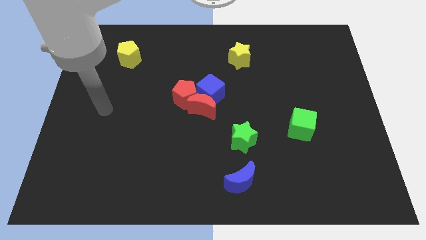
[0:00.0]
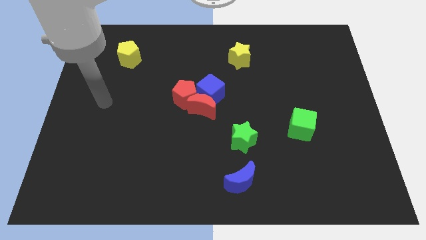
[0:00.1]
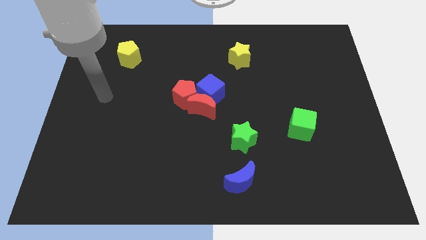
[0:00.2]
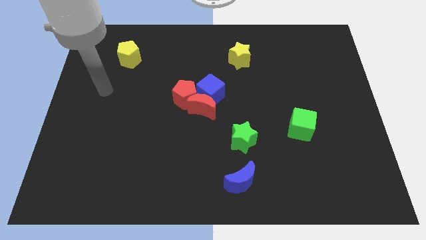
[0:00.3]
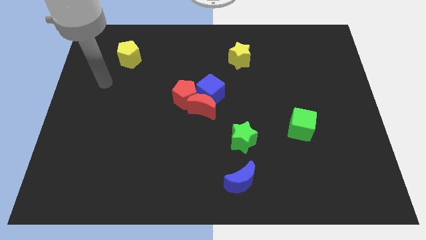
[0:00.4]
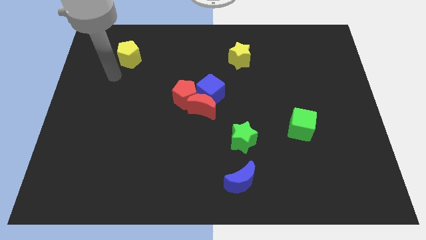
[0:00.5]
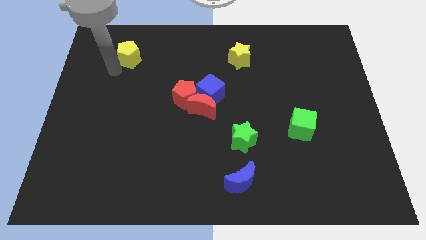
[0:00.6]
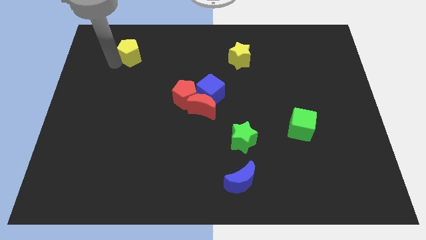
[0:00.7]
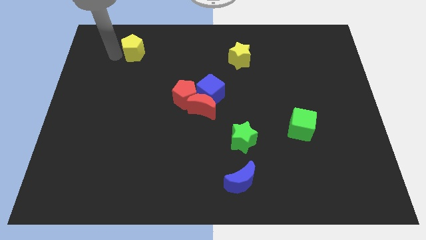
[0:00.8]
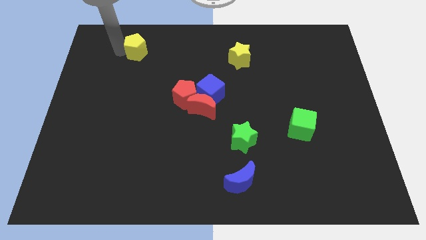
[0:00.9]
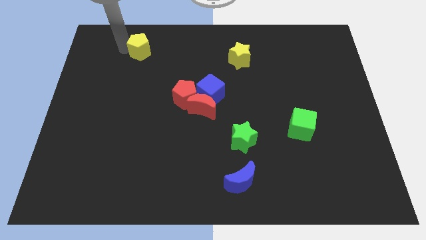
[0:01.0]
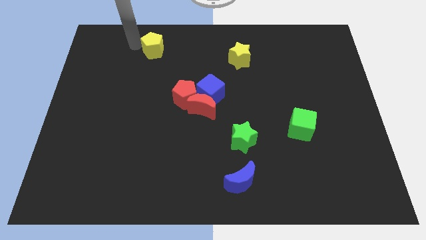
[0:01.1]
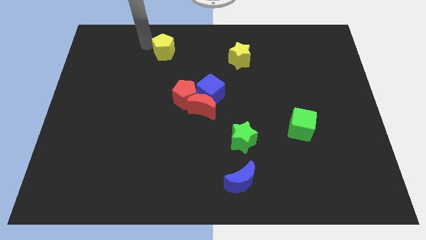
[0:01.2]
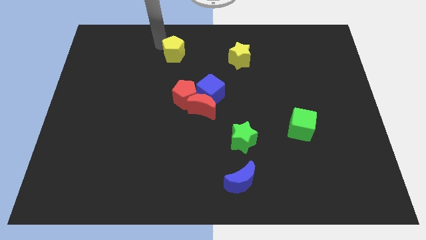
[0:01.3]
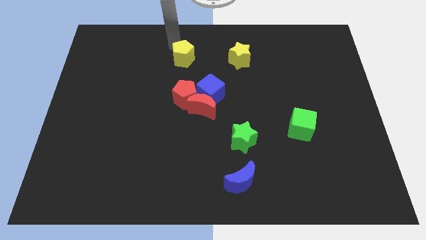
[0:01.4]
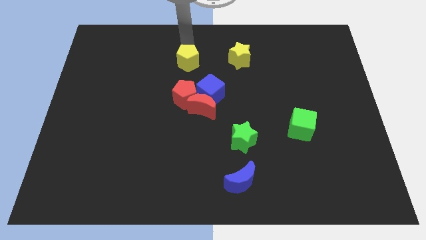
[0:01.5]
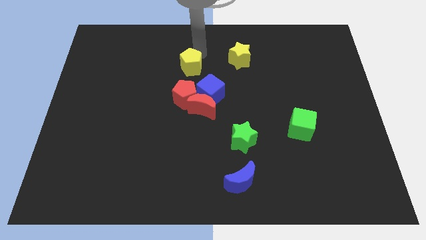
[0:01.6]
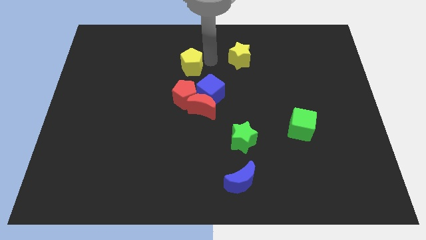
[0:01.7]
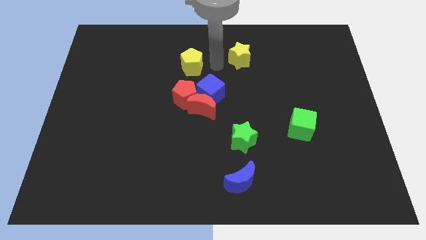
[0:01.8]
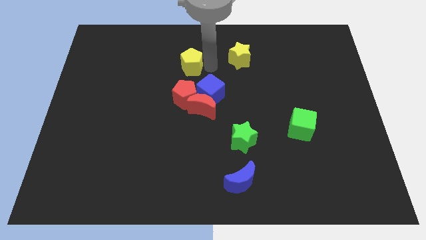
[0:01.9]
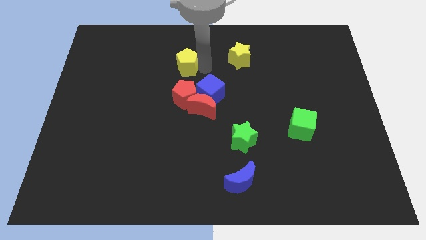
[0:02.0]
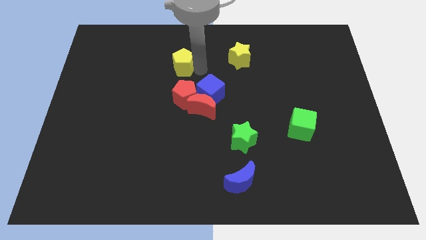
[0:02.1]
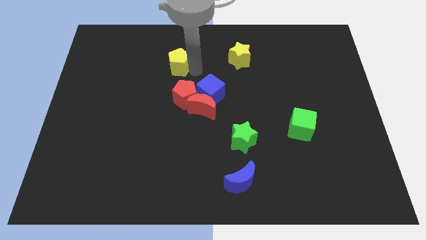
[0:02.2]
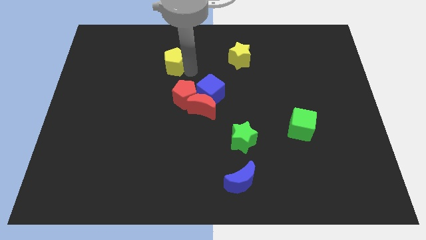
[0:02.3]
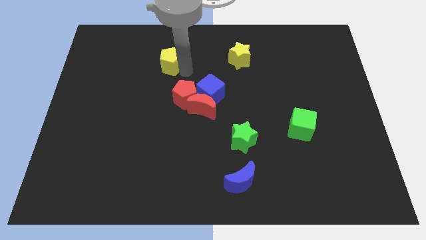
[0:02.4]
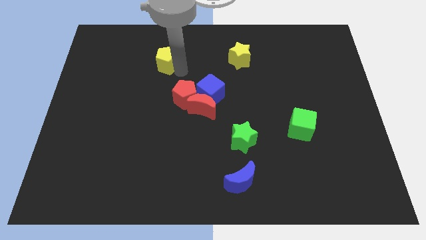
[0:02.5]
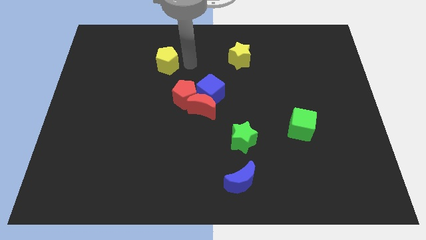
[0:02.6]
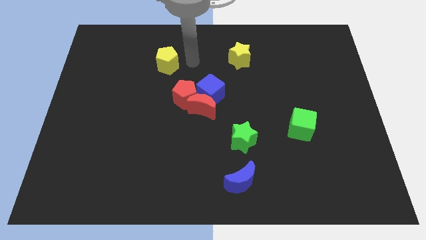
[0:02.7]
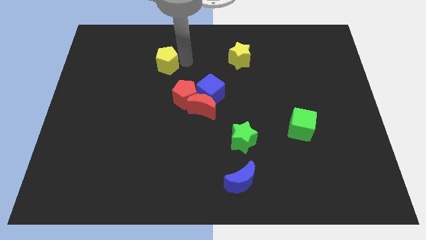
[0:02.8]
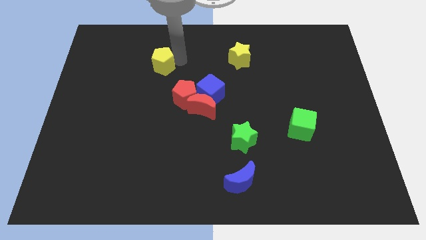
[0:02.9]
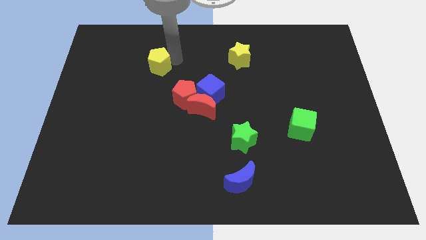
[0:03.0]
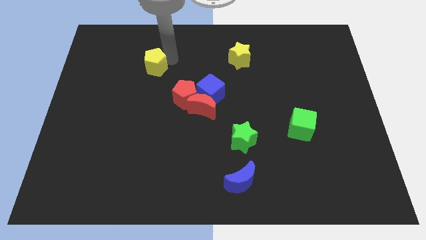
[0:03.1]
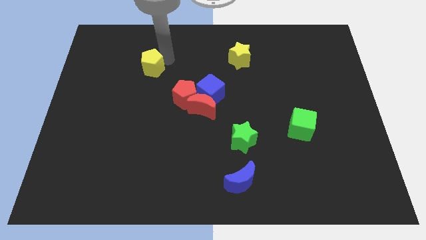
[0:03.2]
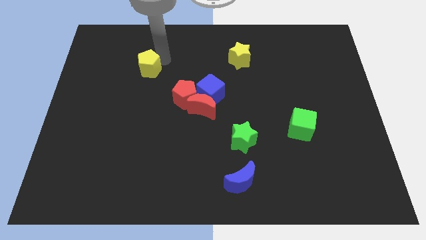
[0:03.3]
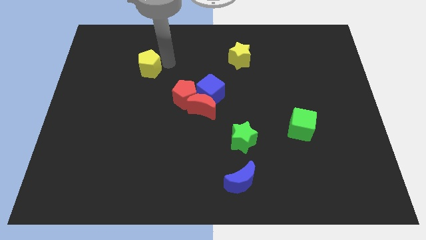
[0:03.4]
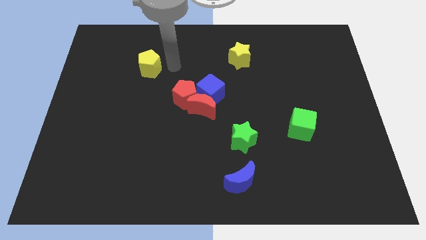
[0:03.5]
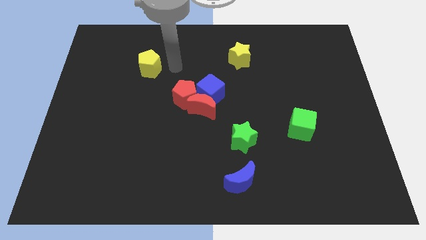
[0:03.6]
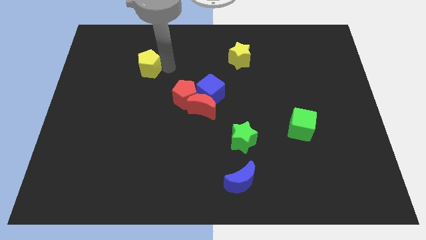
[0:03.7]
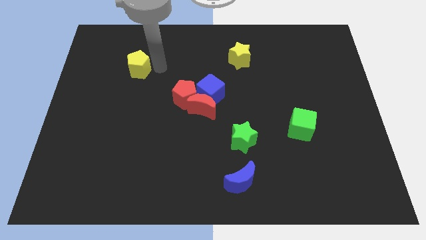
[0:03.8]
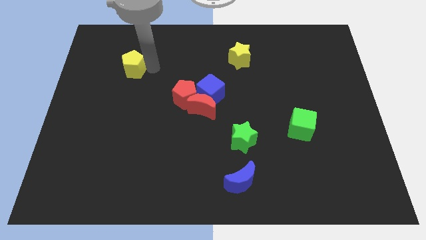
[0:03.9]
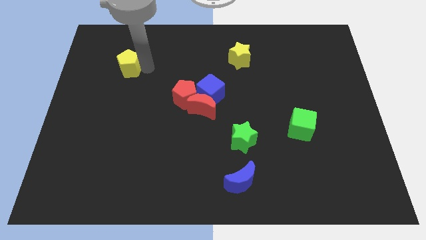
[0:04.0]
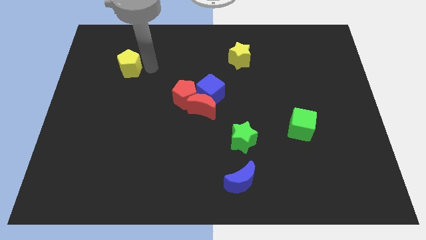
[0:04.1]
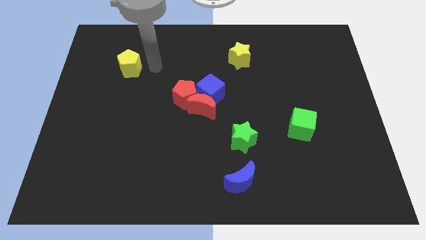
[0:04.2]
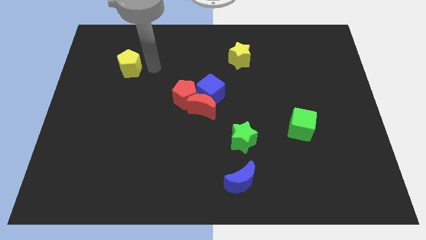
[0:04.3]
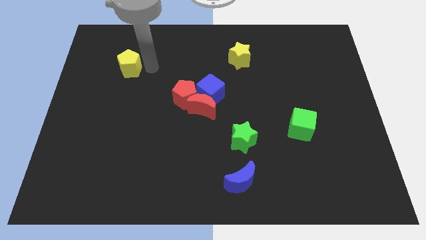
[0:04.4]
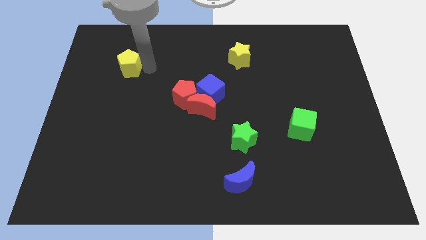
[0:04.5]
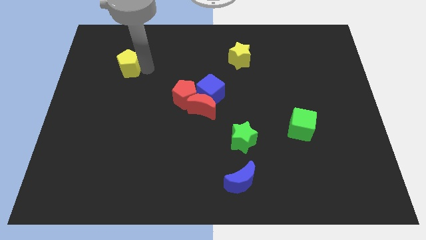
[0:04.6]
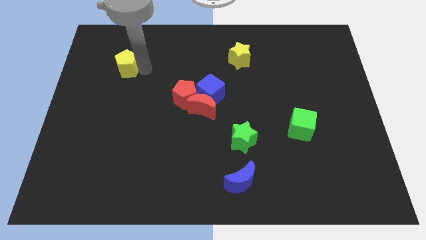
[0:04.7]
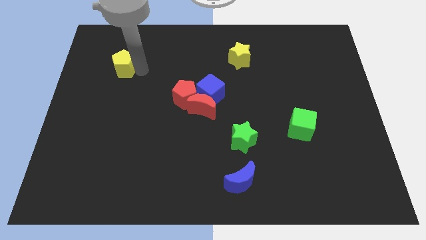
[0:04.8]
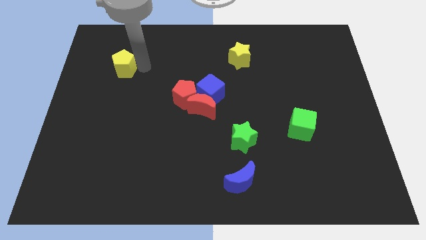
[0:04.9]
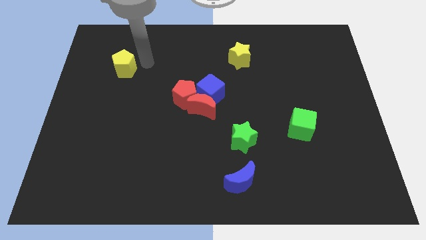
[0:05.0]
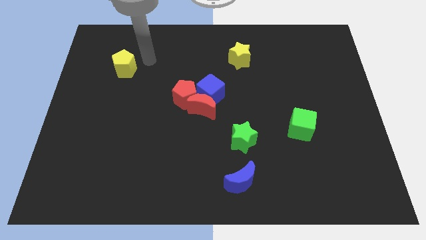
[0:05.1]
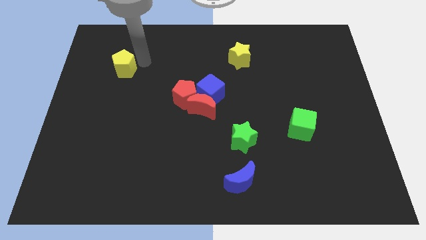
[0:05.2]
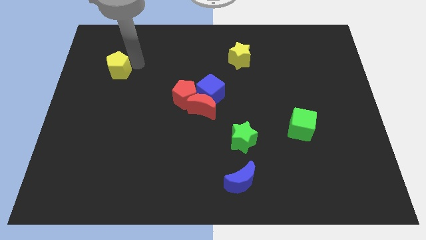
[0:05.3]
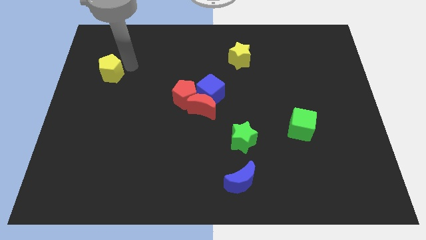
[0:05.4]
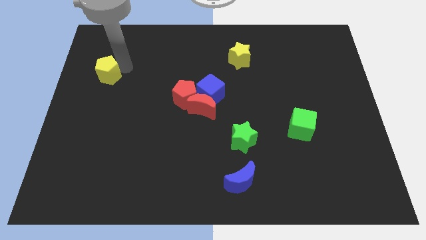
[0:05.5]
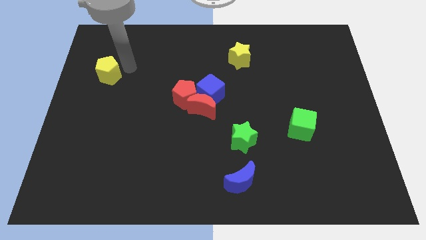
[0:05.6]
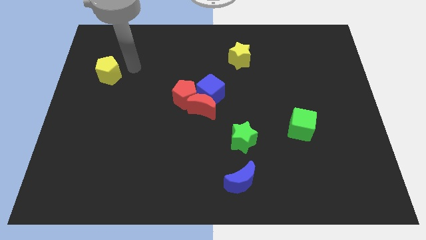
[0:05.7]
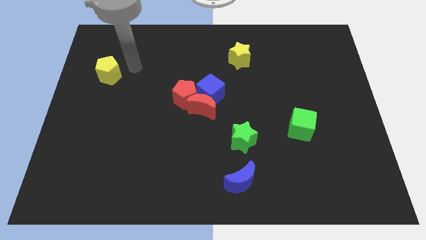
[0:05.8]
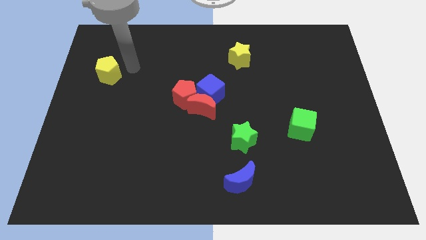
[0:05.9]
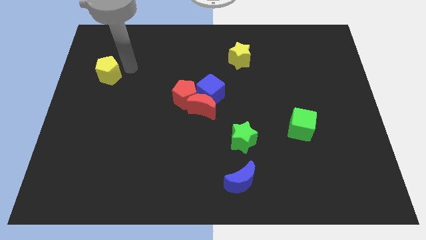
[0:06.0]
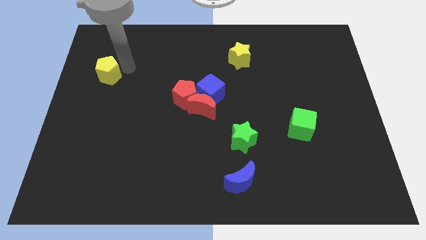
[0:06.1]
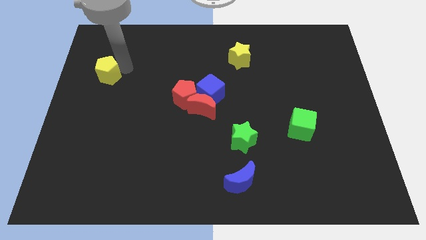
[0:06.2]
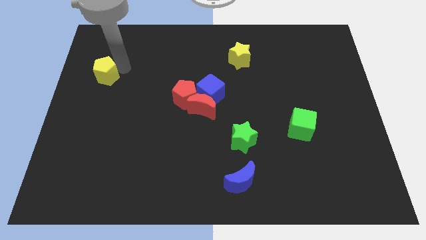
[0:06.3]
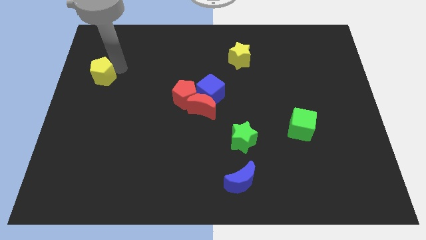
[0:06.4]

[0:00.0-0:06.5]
put the yellow pentagon to the center left
